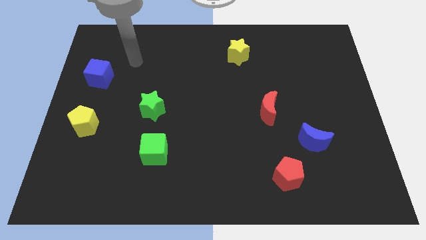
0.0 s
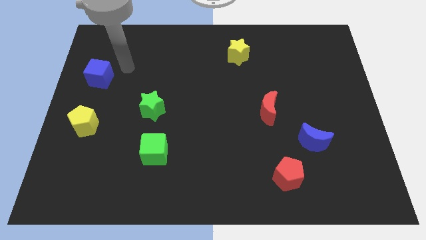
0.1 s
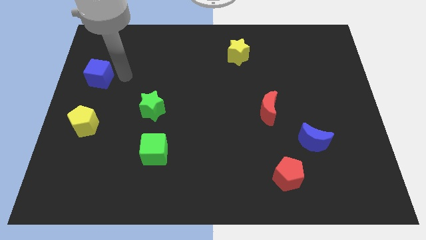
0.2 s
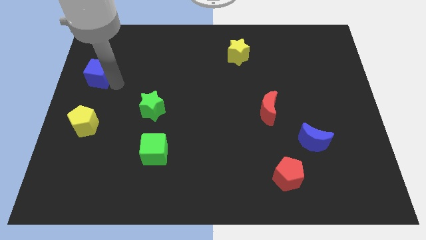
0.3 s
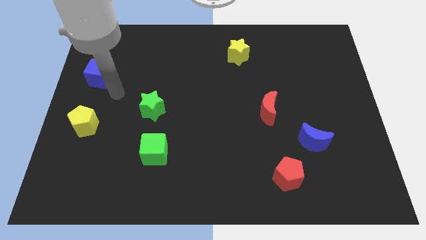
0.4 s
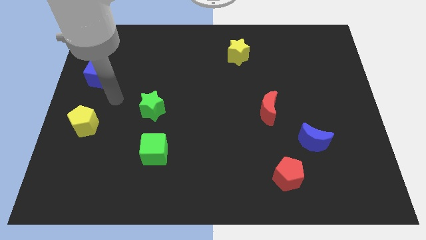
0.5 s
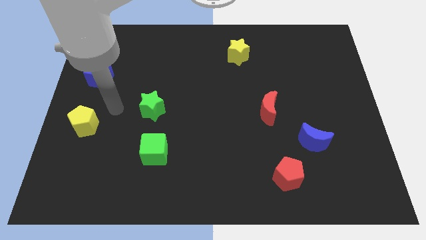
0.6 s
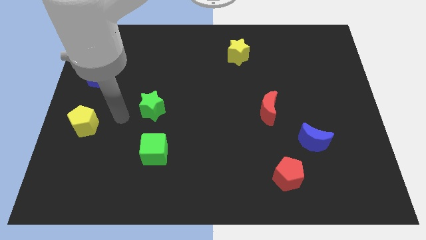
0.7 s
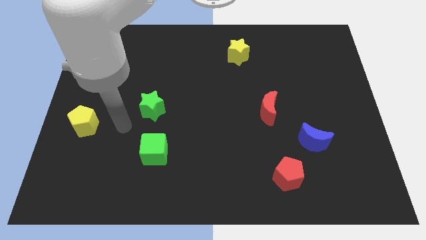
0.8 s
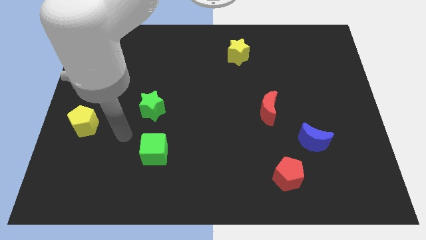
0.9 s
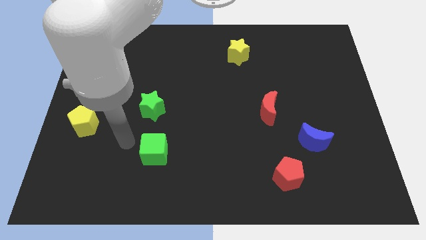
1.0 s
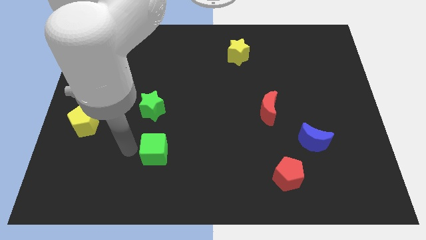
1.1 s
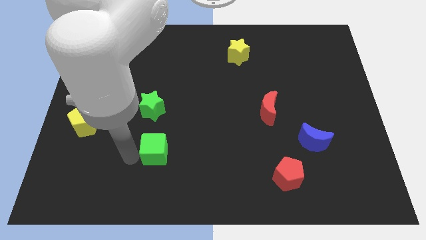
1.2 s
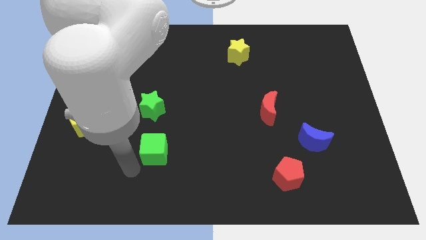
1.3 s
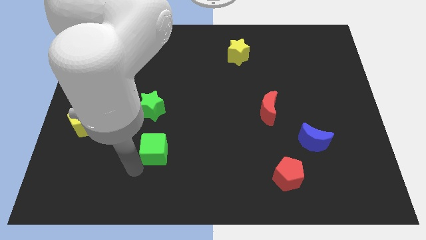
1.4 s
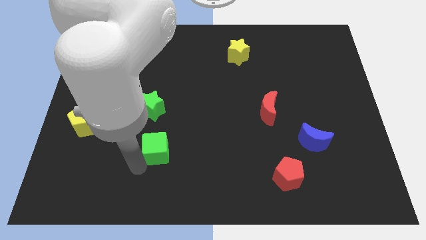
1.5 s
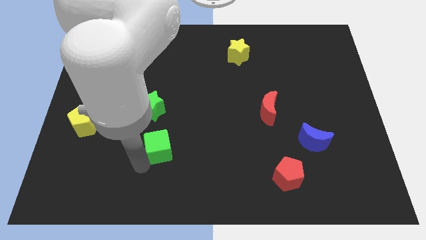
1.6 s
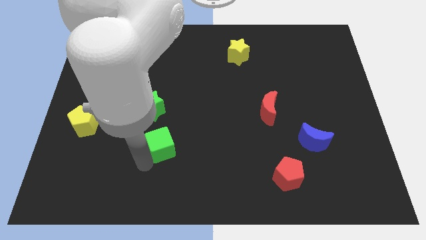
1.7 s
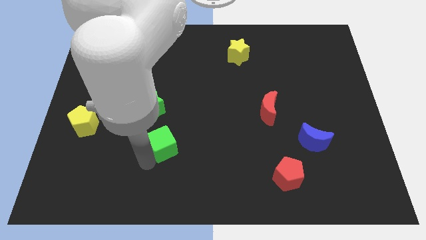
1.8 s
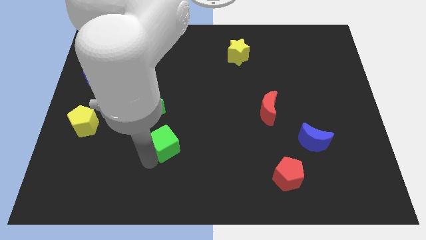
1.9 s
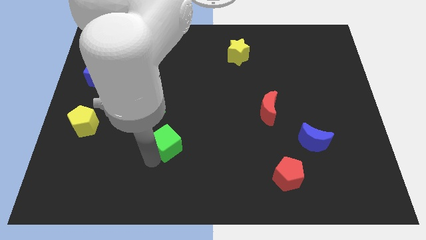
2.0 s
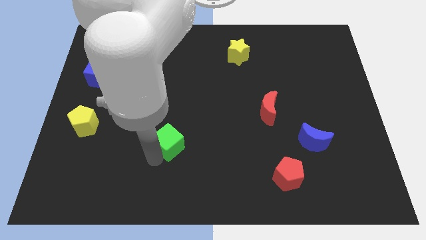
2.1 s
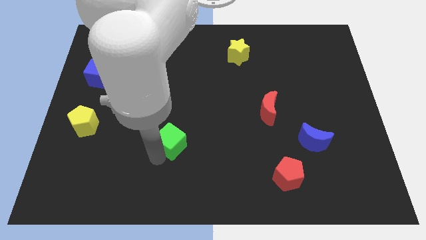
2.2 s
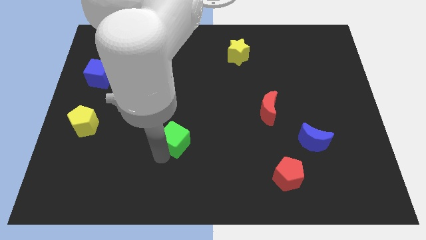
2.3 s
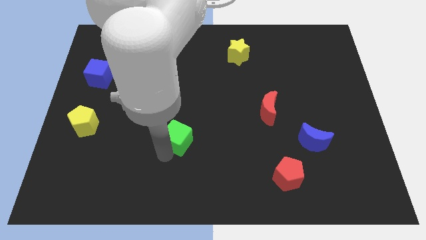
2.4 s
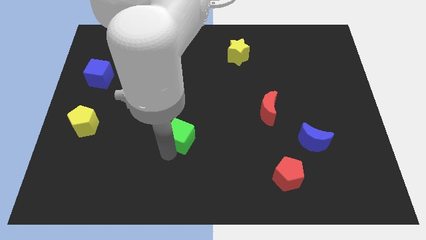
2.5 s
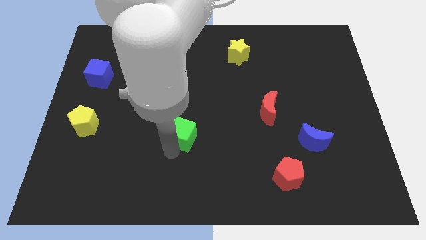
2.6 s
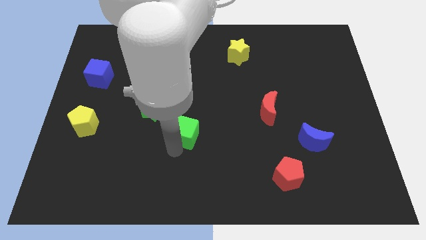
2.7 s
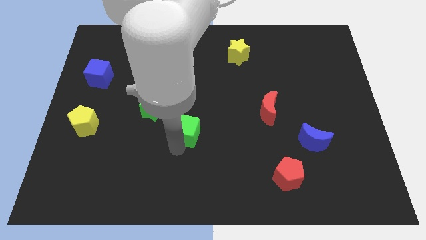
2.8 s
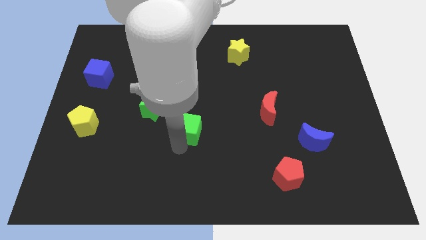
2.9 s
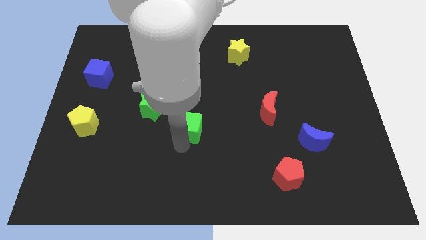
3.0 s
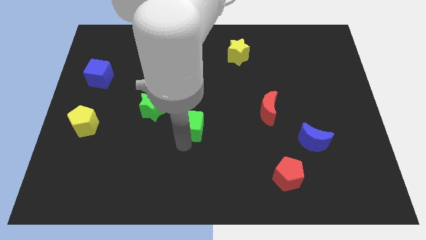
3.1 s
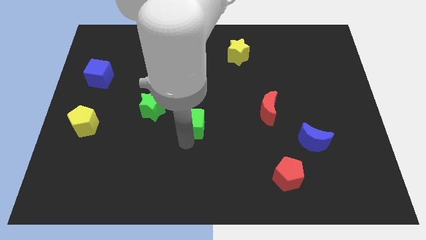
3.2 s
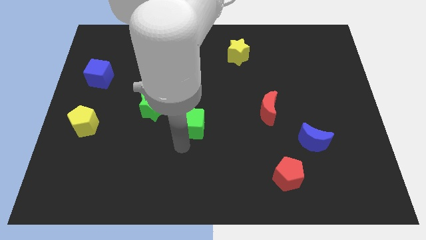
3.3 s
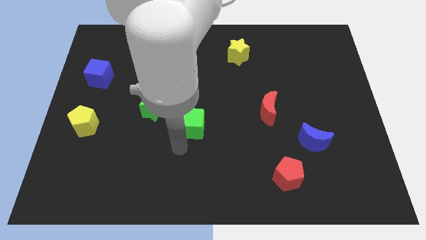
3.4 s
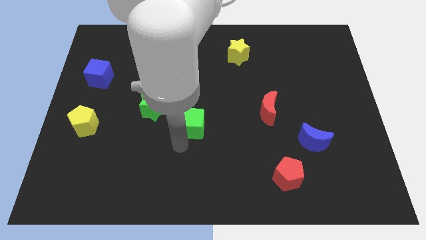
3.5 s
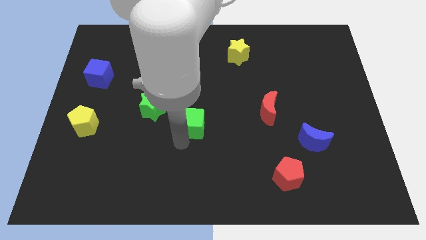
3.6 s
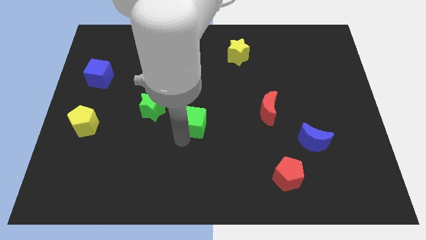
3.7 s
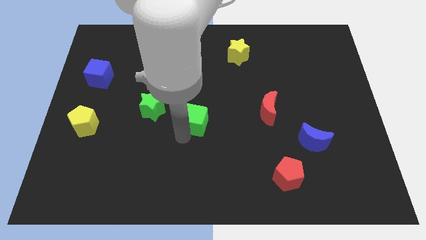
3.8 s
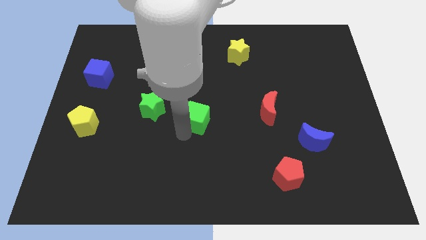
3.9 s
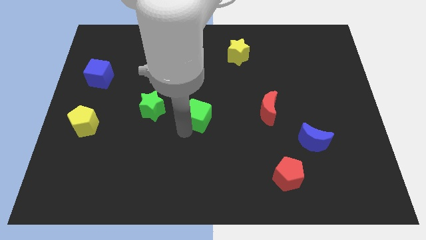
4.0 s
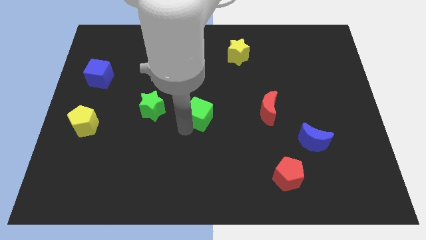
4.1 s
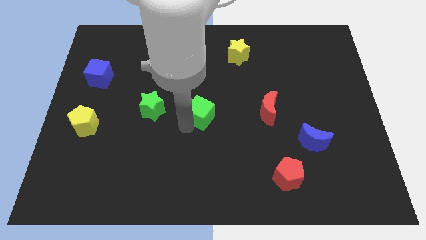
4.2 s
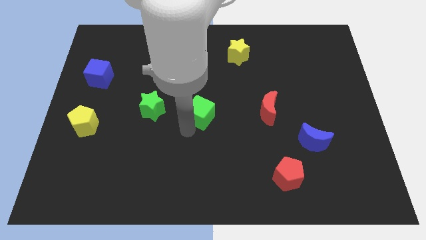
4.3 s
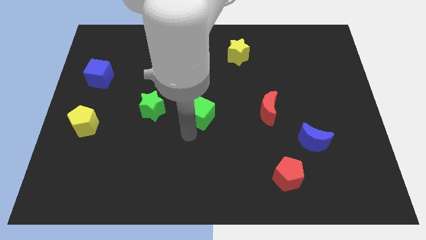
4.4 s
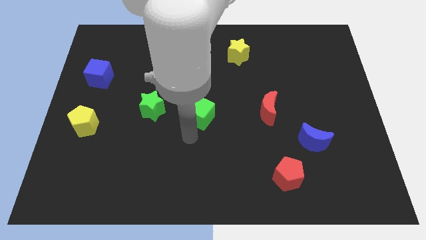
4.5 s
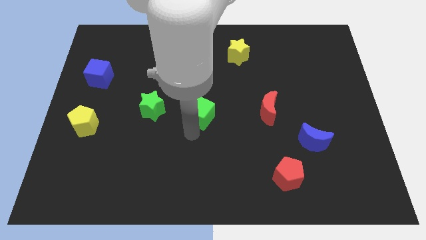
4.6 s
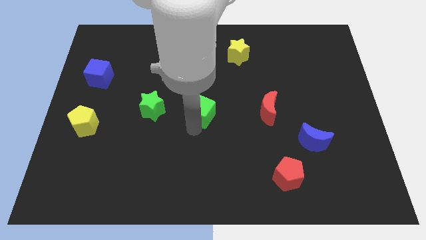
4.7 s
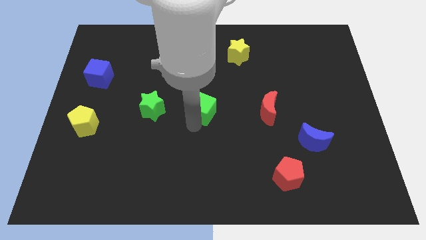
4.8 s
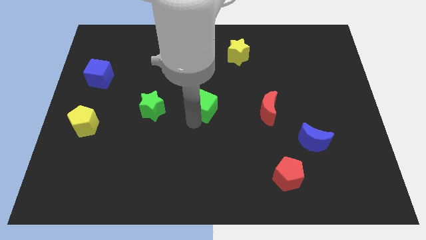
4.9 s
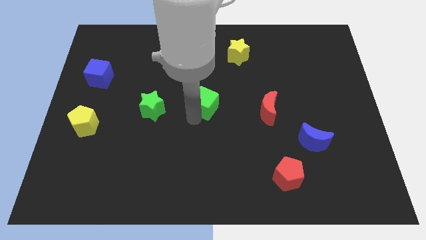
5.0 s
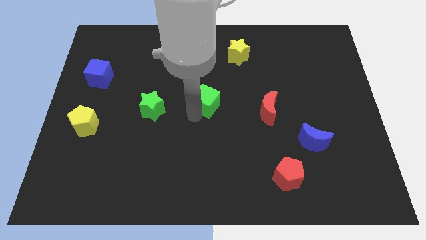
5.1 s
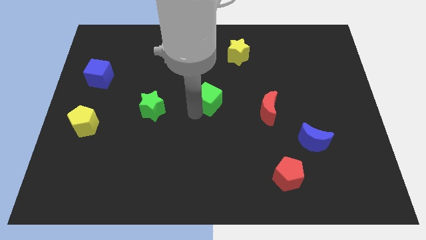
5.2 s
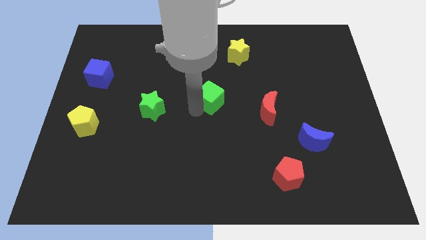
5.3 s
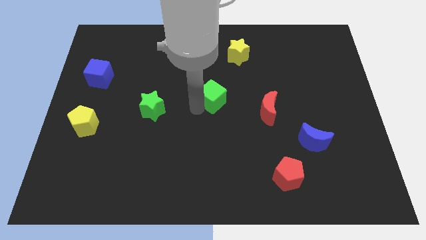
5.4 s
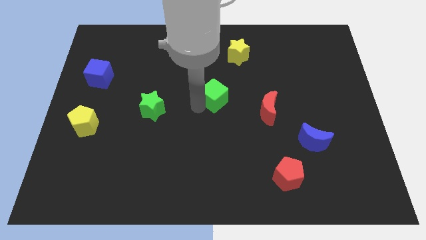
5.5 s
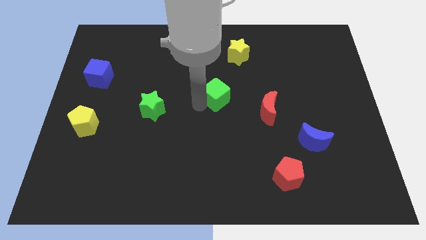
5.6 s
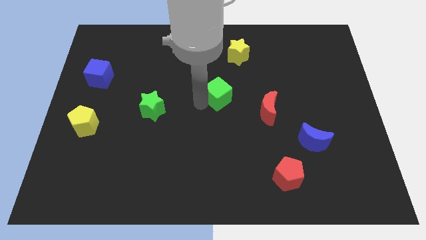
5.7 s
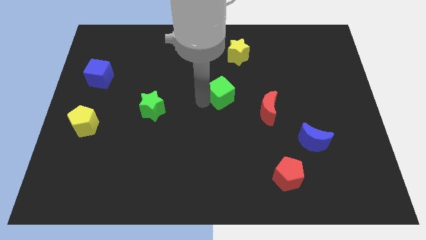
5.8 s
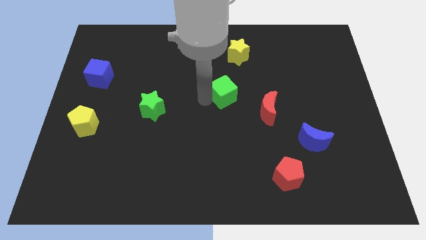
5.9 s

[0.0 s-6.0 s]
move the green cube to the bottom of the yellow star

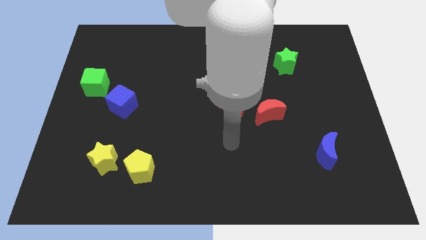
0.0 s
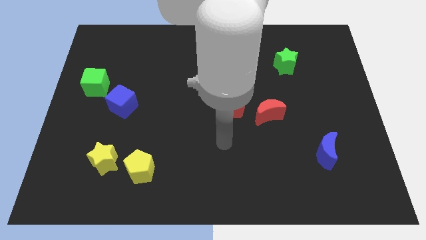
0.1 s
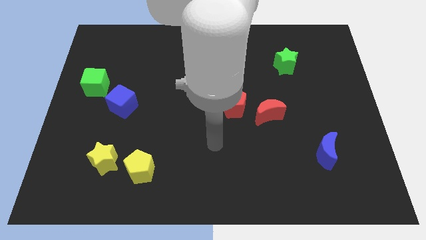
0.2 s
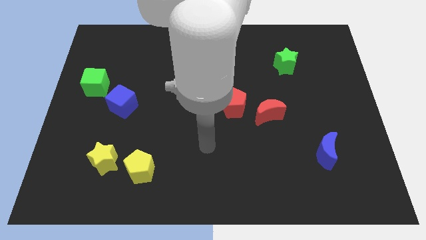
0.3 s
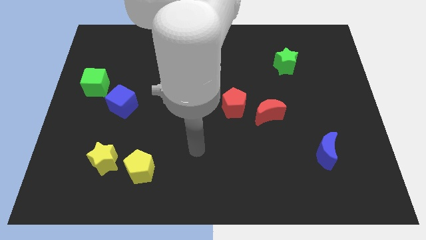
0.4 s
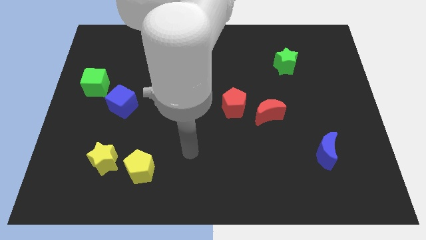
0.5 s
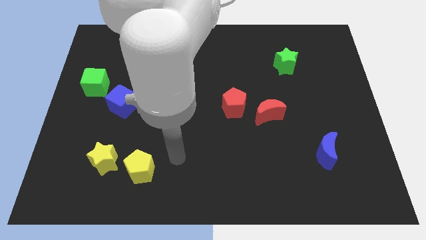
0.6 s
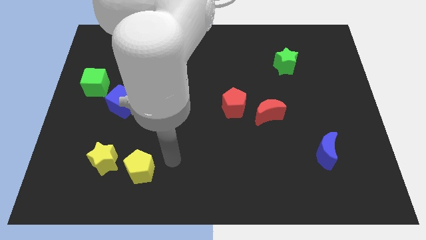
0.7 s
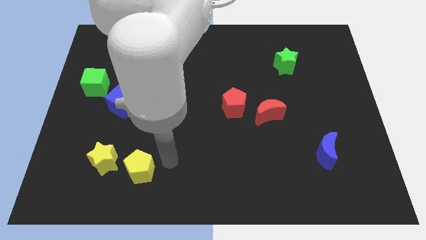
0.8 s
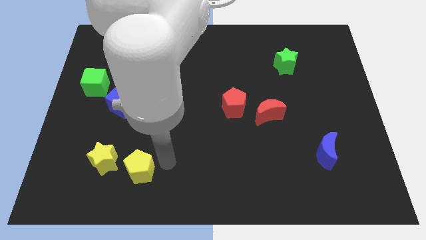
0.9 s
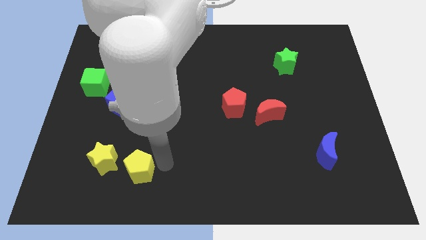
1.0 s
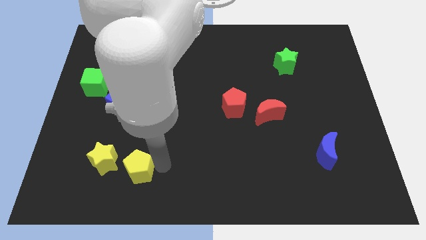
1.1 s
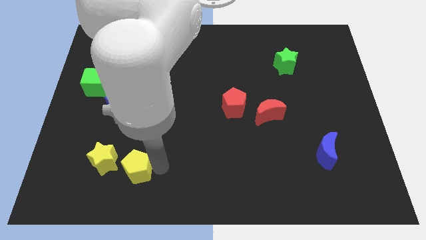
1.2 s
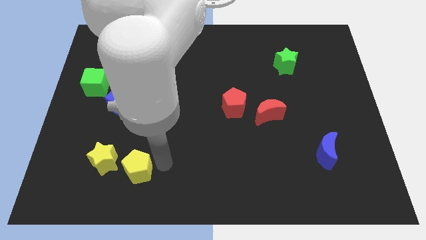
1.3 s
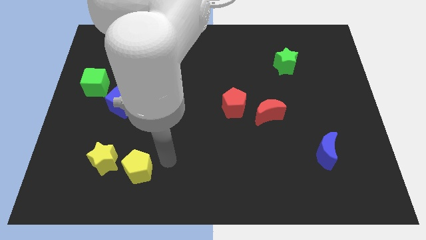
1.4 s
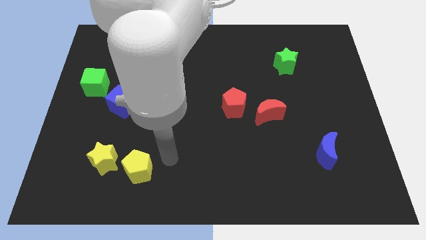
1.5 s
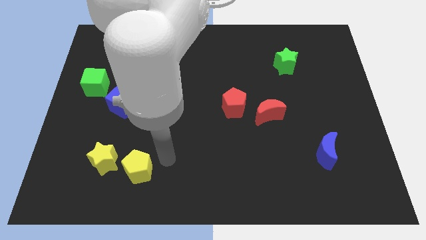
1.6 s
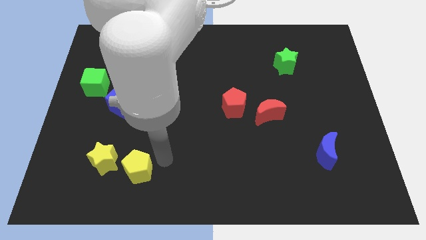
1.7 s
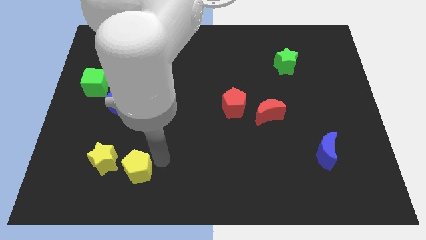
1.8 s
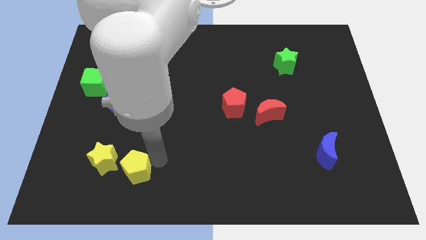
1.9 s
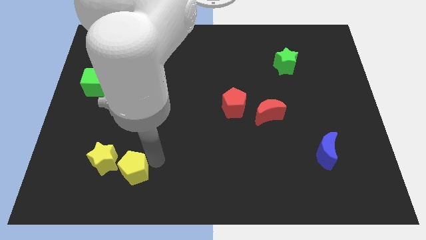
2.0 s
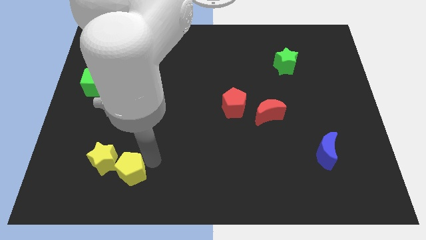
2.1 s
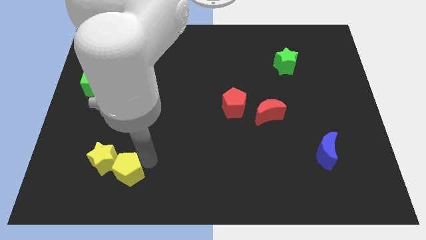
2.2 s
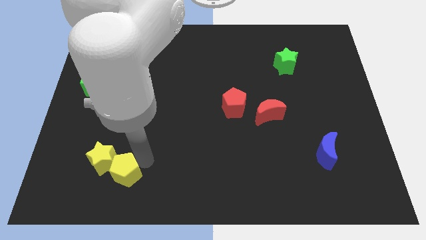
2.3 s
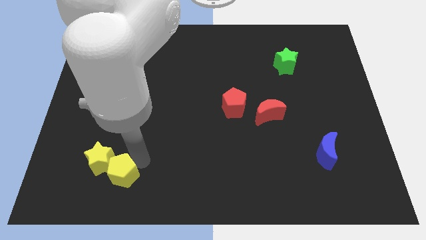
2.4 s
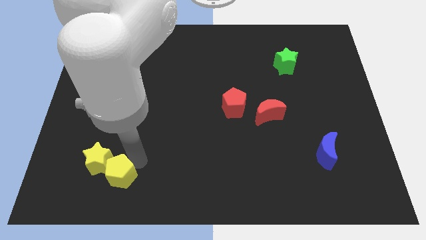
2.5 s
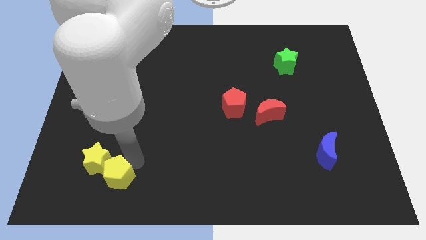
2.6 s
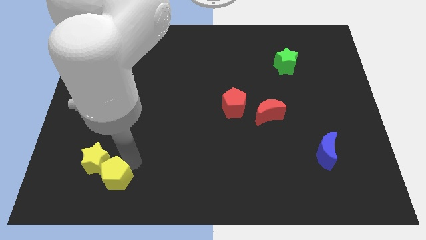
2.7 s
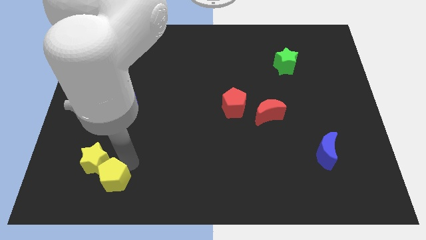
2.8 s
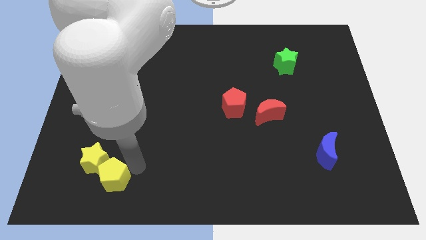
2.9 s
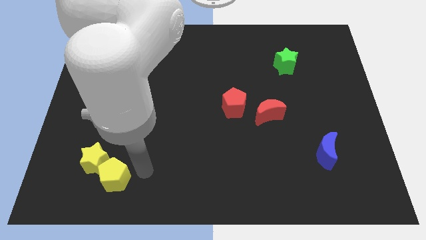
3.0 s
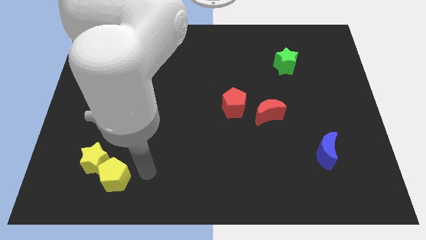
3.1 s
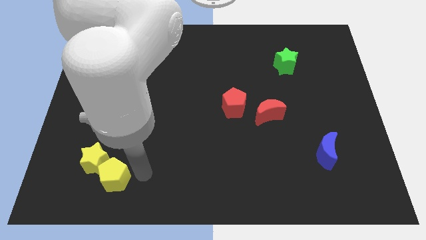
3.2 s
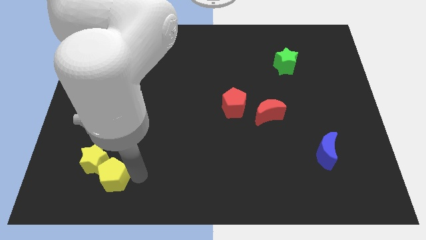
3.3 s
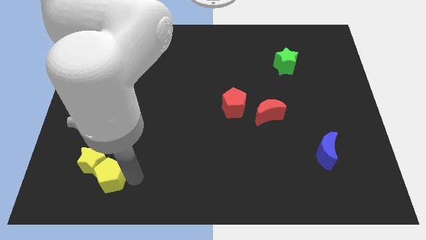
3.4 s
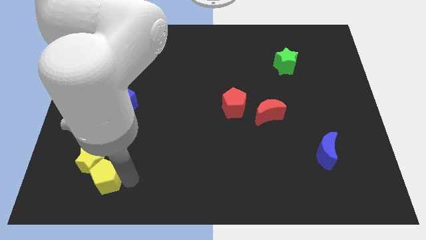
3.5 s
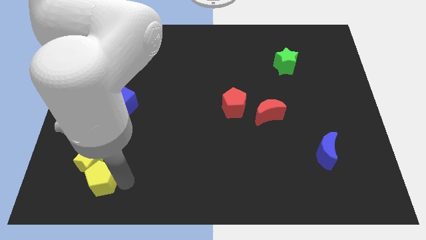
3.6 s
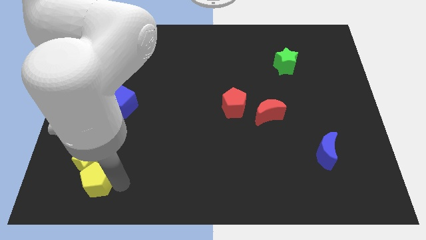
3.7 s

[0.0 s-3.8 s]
put the yellow pentagon to the bottom left of the yellow star
